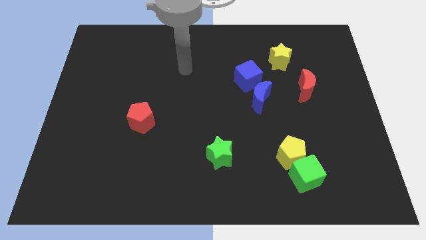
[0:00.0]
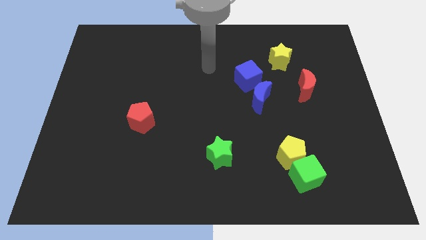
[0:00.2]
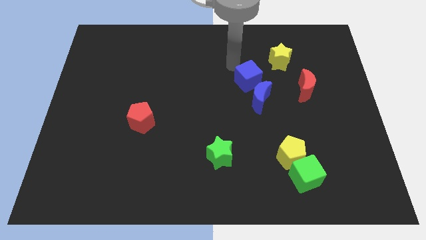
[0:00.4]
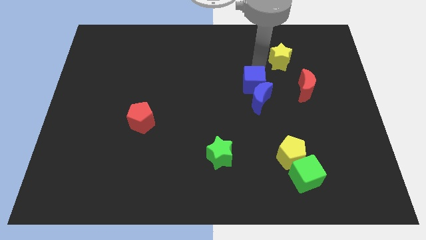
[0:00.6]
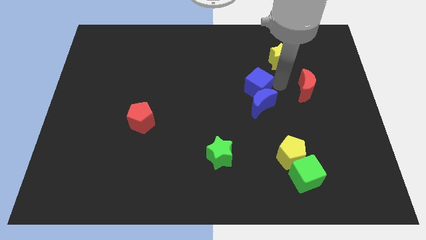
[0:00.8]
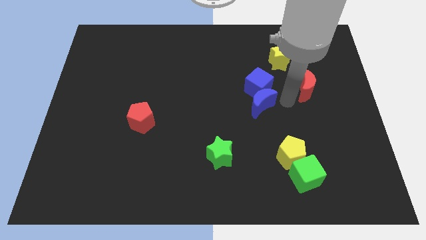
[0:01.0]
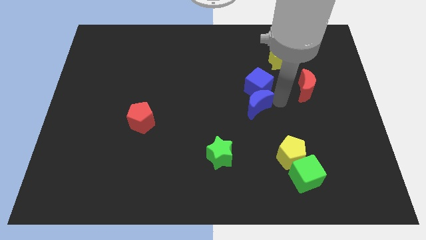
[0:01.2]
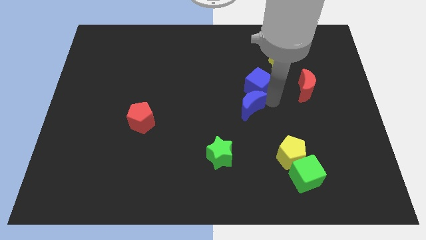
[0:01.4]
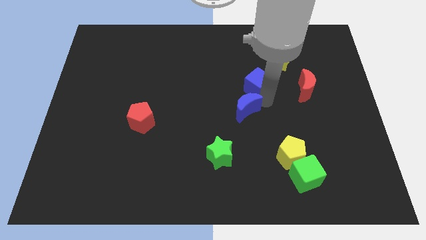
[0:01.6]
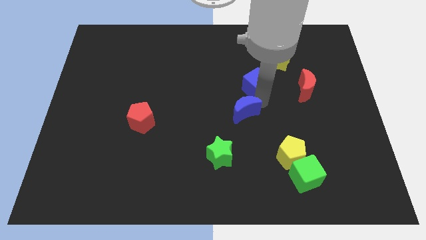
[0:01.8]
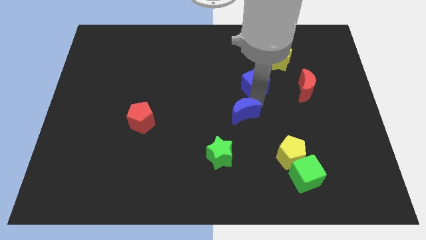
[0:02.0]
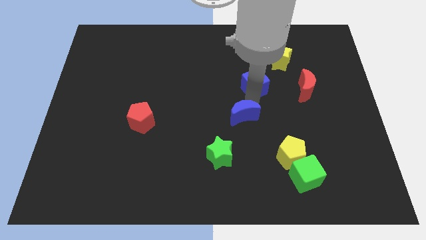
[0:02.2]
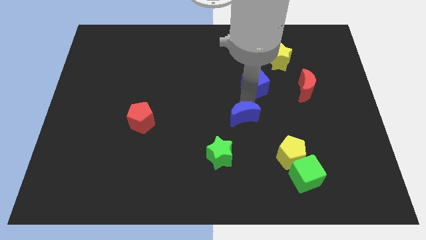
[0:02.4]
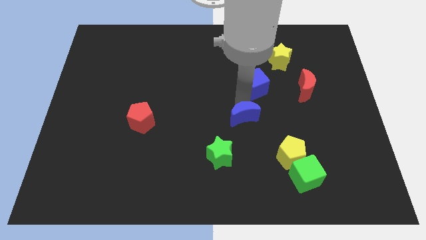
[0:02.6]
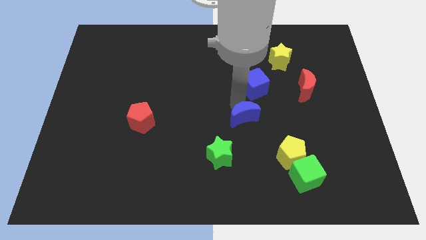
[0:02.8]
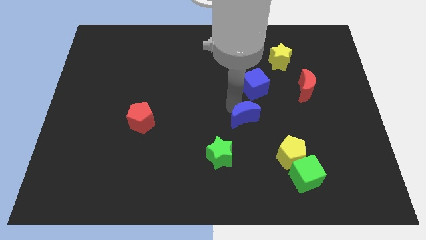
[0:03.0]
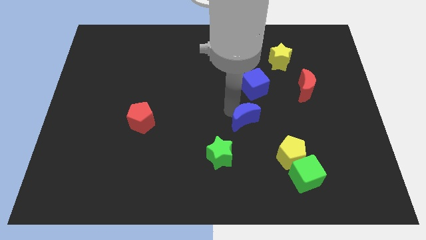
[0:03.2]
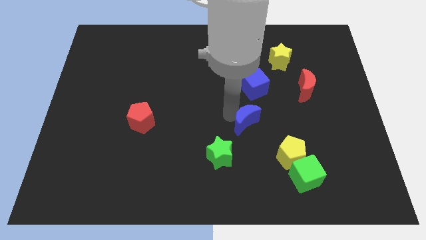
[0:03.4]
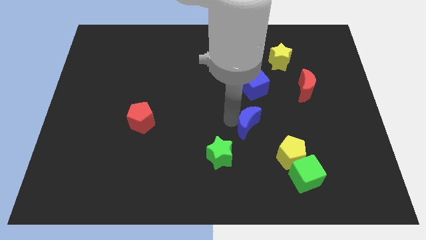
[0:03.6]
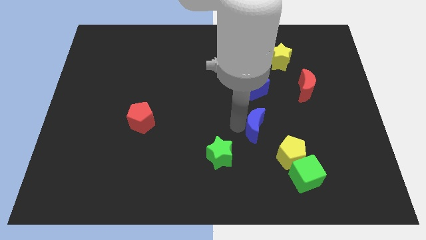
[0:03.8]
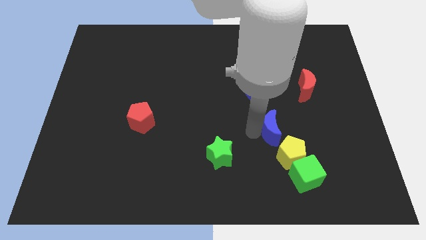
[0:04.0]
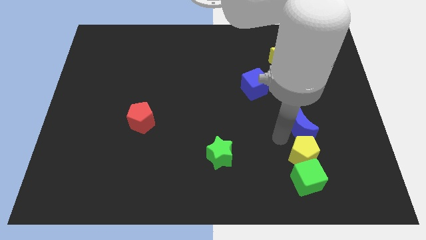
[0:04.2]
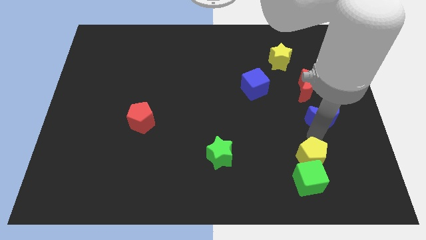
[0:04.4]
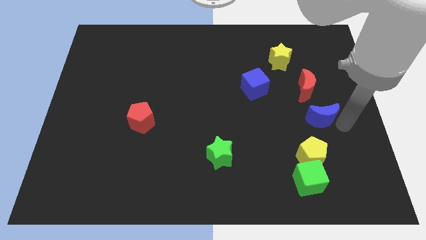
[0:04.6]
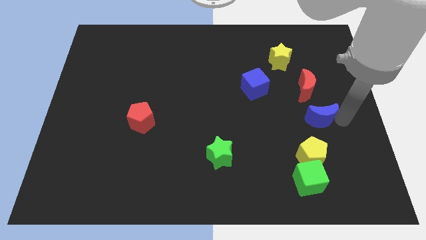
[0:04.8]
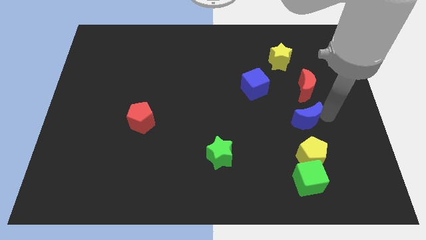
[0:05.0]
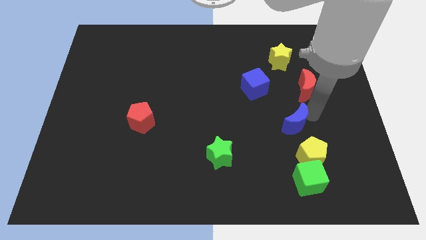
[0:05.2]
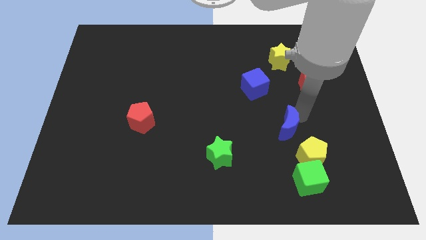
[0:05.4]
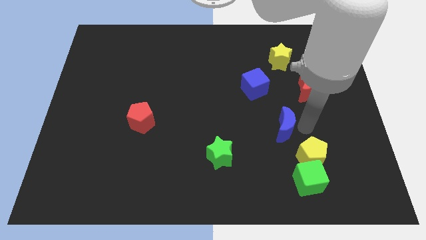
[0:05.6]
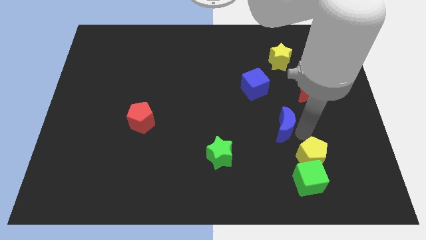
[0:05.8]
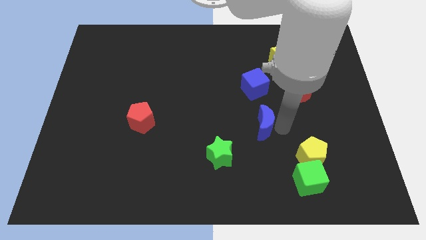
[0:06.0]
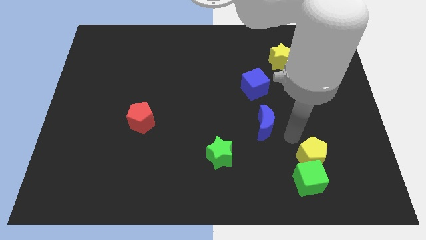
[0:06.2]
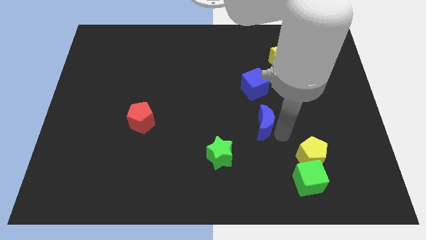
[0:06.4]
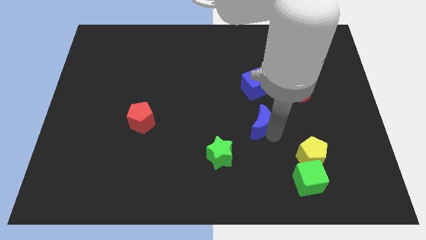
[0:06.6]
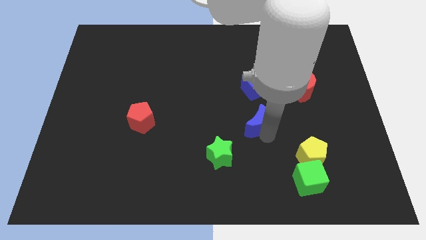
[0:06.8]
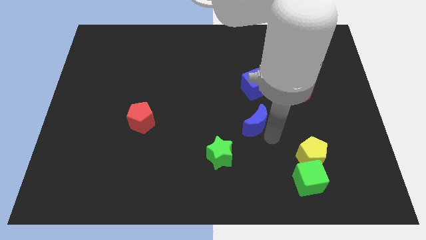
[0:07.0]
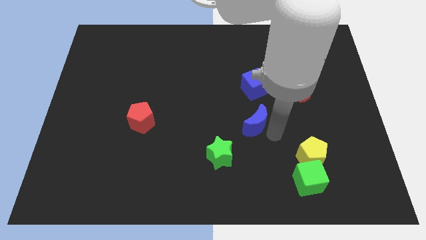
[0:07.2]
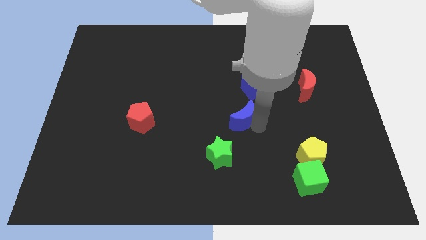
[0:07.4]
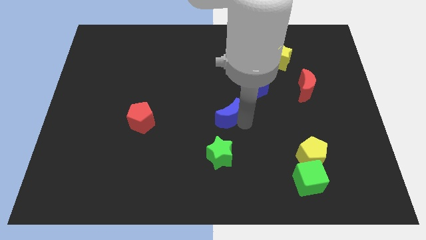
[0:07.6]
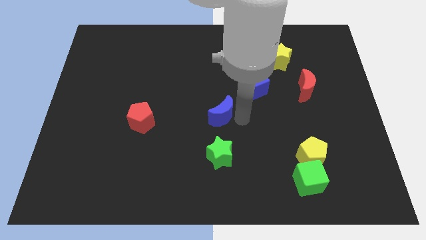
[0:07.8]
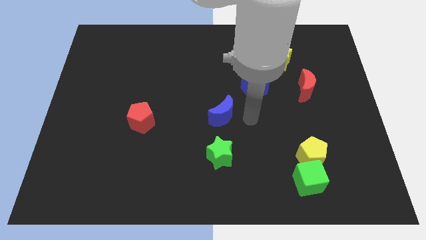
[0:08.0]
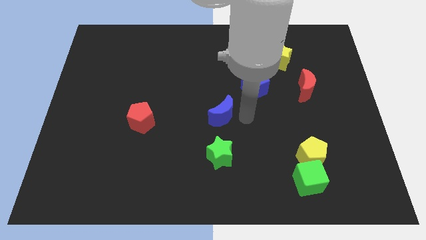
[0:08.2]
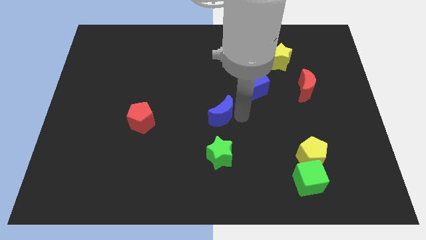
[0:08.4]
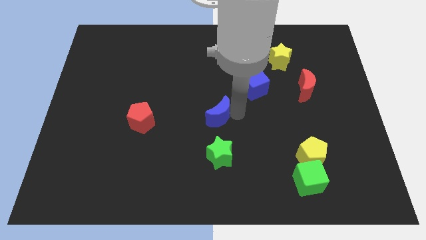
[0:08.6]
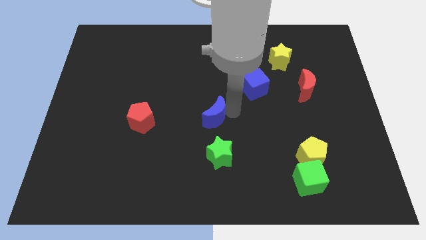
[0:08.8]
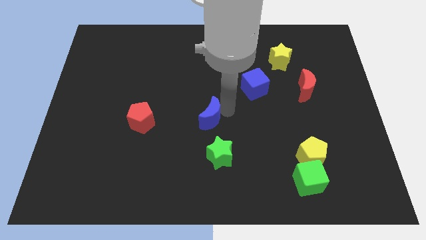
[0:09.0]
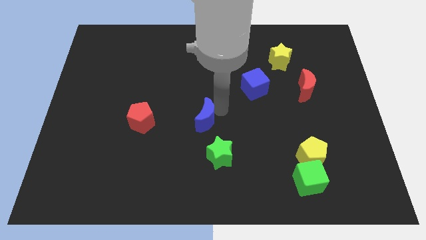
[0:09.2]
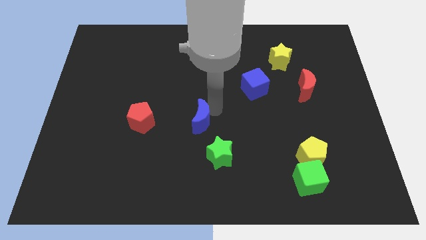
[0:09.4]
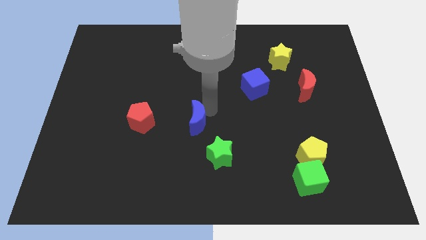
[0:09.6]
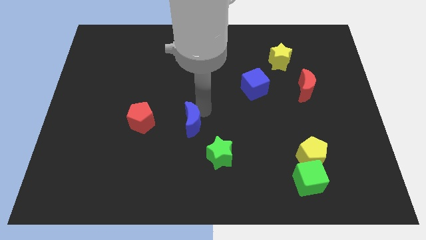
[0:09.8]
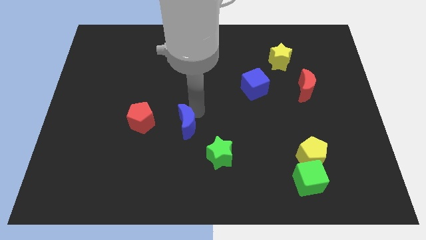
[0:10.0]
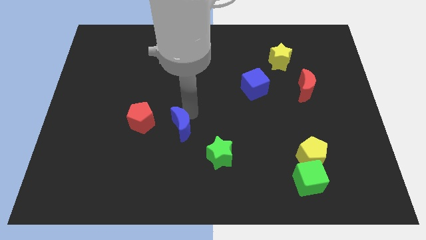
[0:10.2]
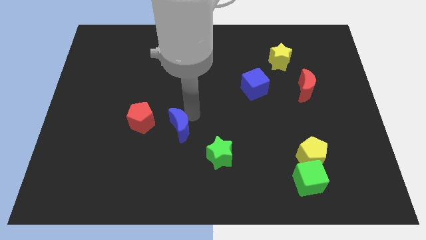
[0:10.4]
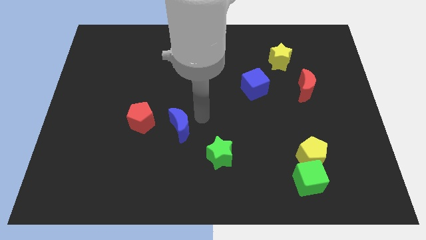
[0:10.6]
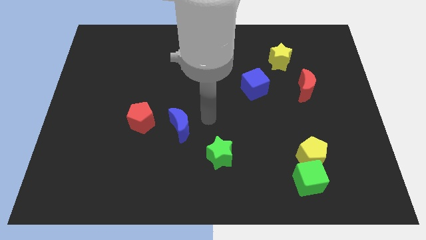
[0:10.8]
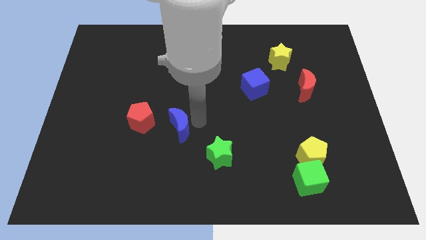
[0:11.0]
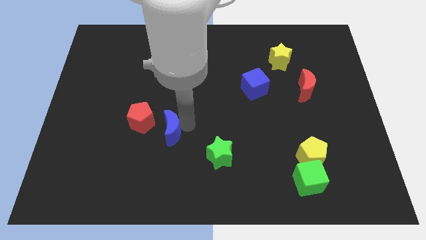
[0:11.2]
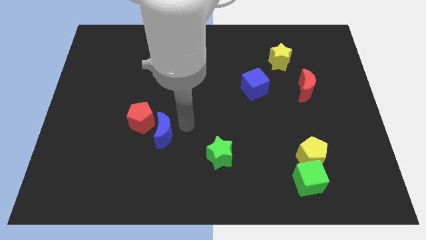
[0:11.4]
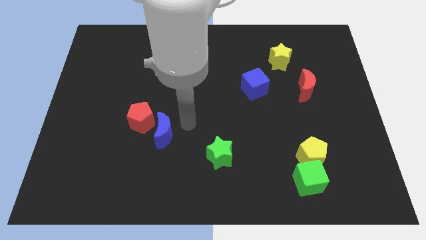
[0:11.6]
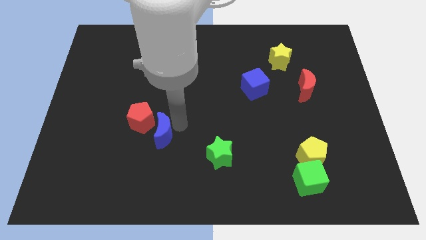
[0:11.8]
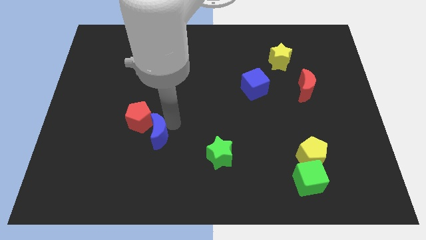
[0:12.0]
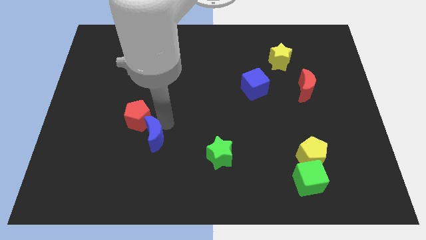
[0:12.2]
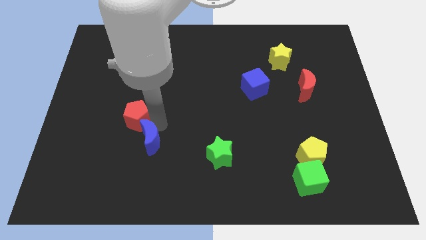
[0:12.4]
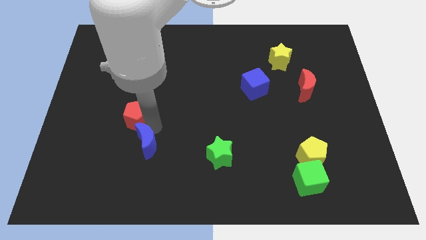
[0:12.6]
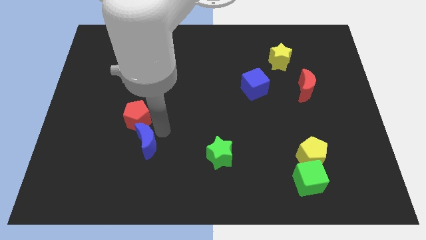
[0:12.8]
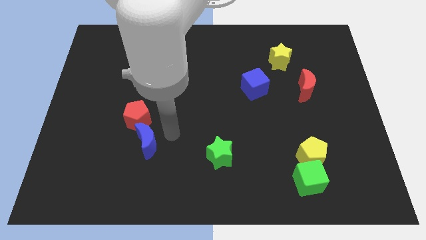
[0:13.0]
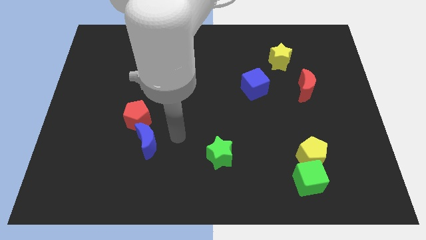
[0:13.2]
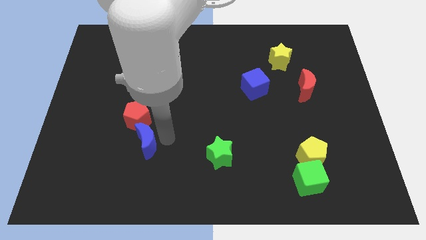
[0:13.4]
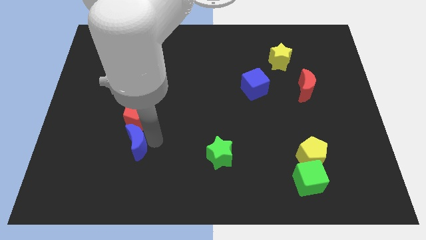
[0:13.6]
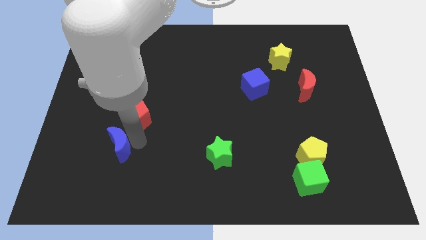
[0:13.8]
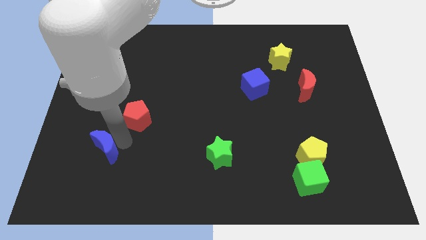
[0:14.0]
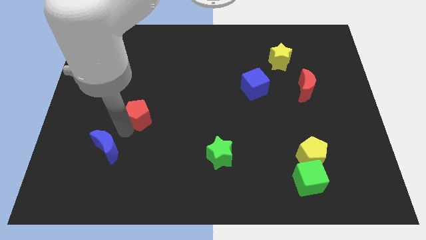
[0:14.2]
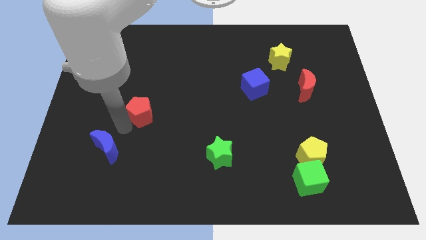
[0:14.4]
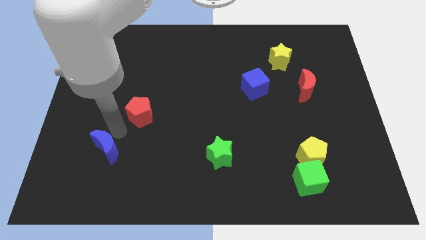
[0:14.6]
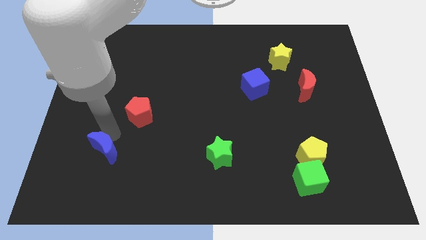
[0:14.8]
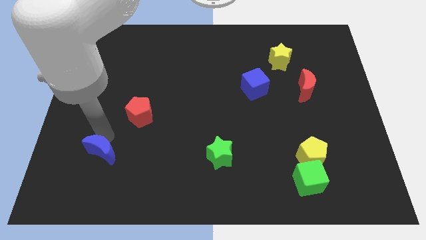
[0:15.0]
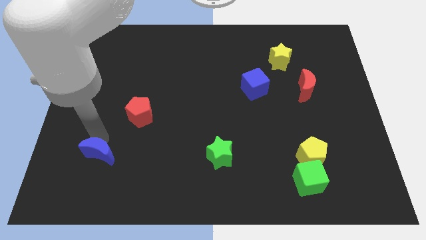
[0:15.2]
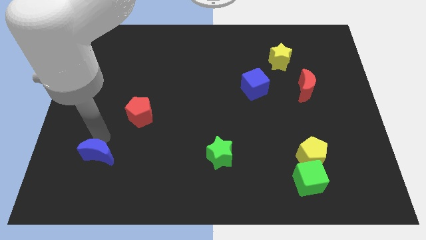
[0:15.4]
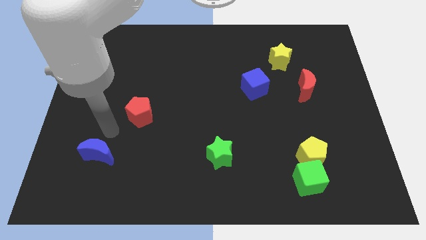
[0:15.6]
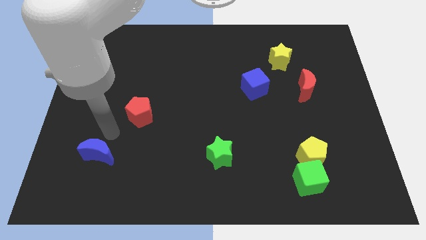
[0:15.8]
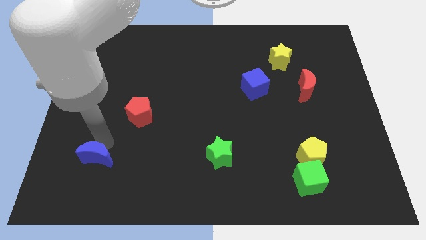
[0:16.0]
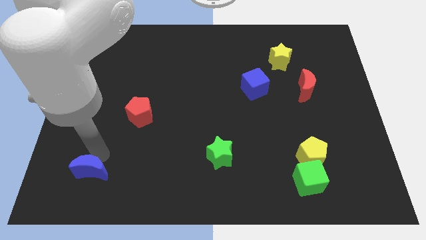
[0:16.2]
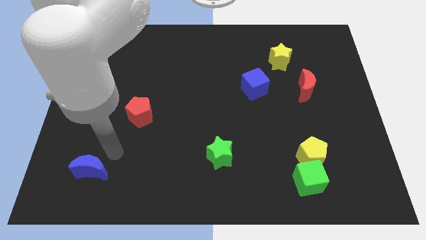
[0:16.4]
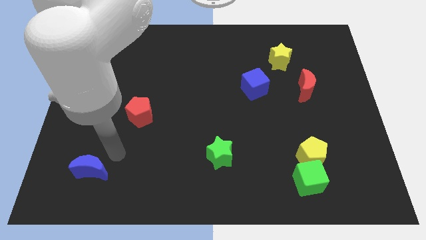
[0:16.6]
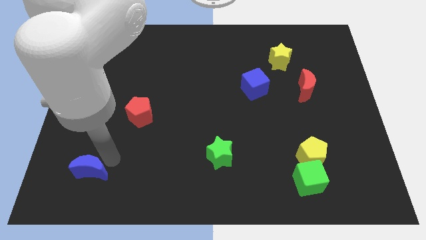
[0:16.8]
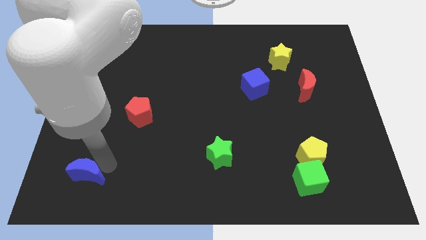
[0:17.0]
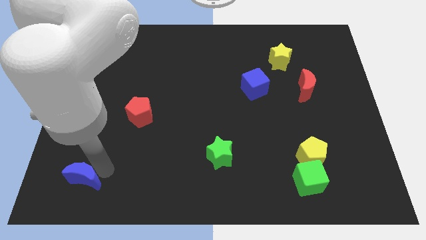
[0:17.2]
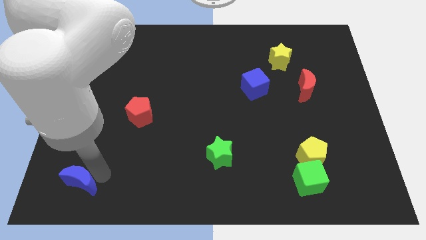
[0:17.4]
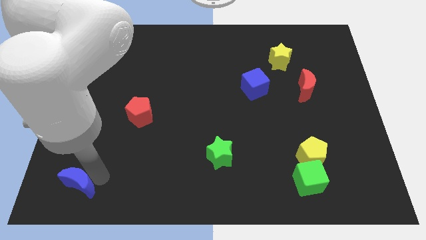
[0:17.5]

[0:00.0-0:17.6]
push the blue moon to the bottom left of the board
